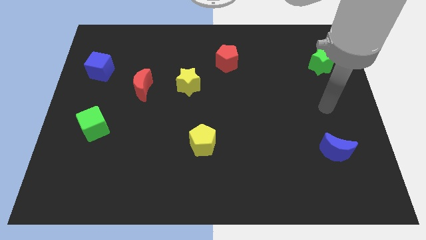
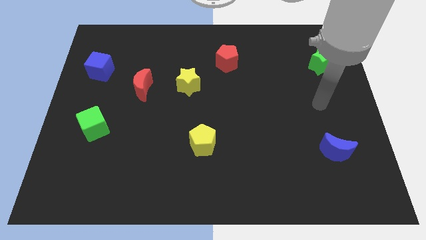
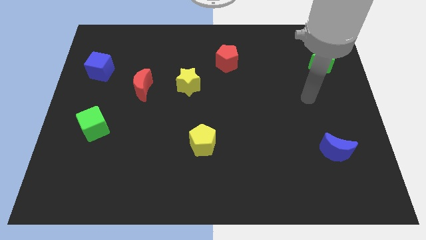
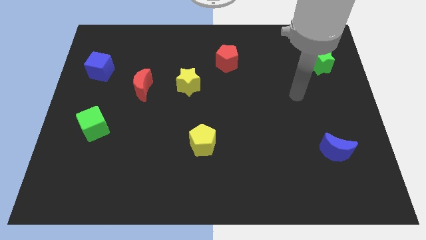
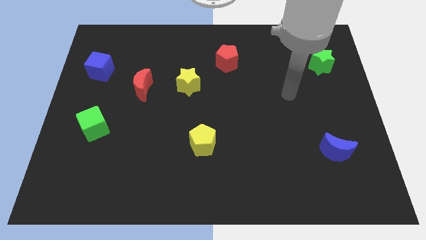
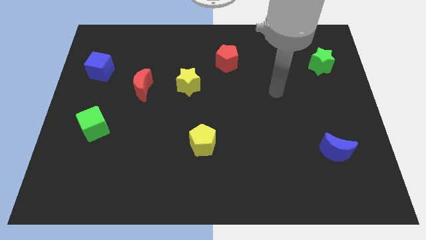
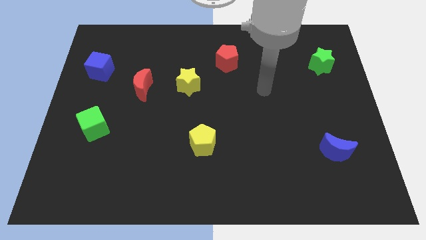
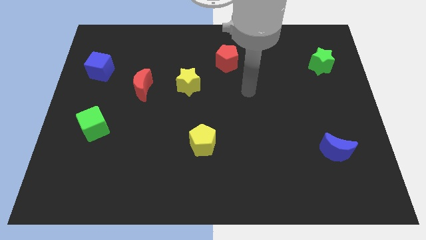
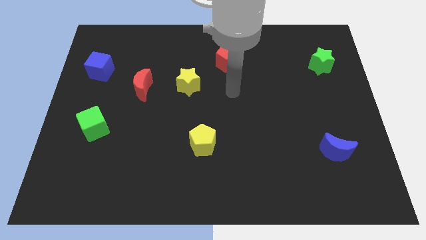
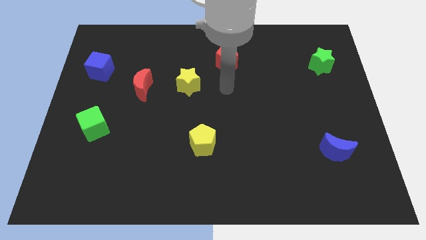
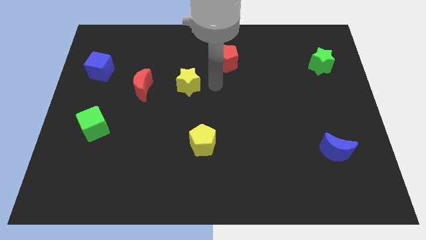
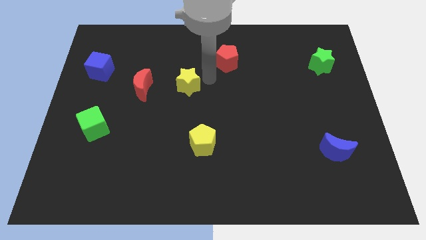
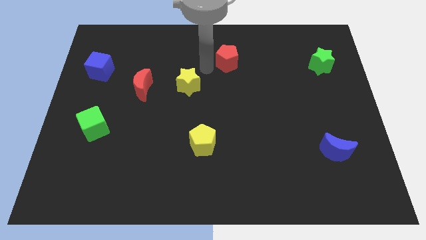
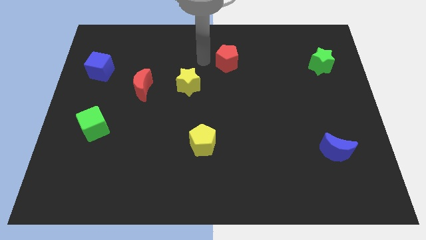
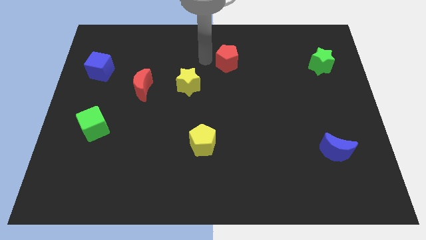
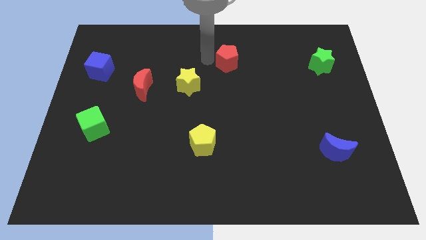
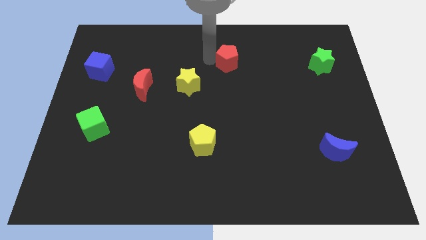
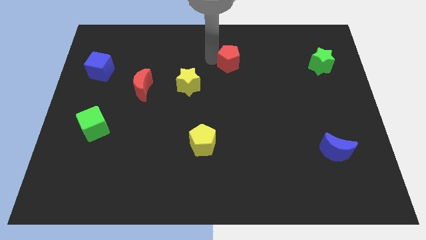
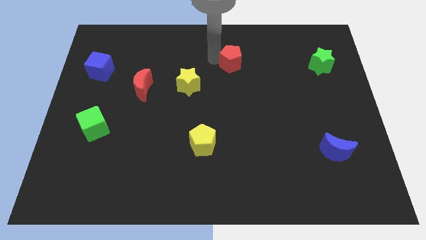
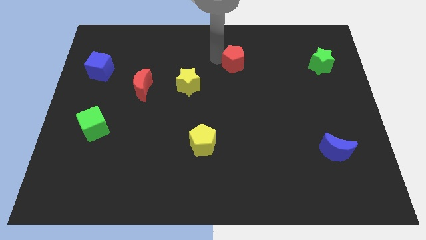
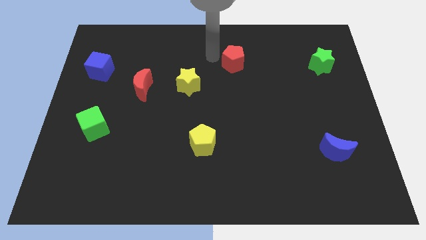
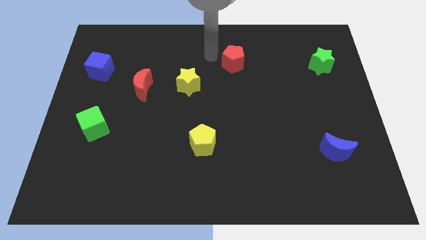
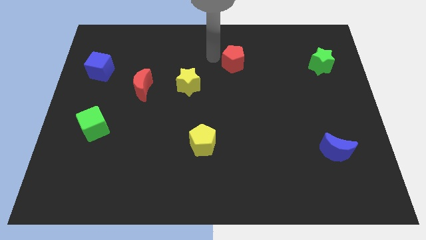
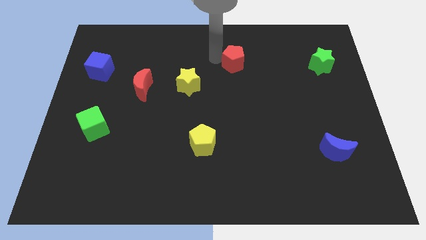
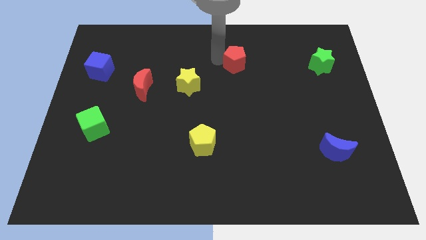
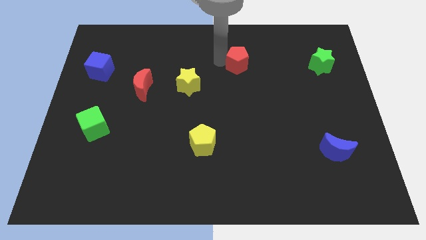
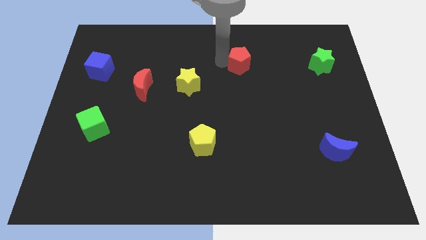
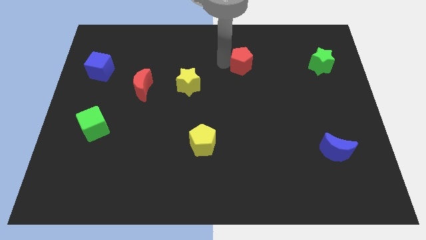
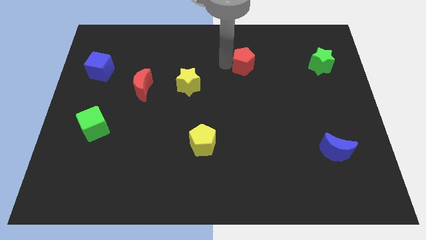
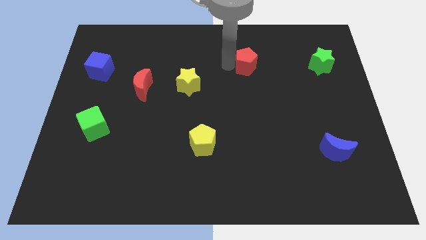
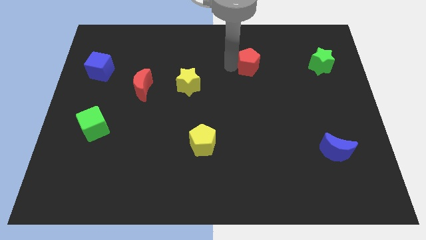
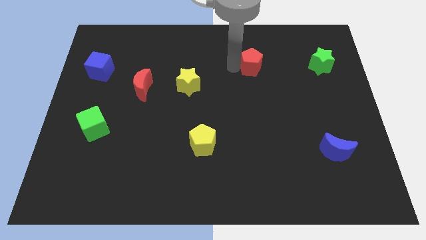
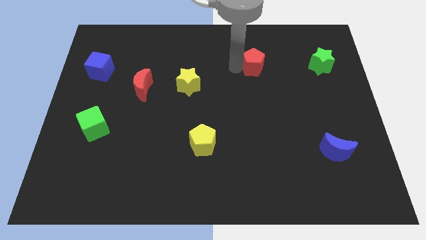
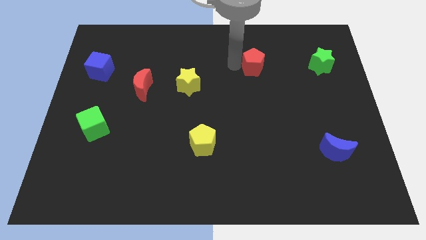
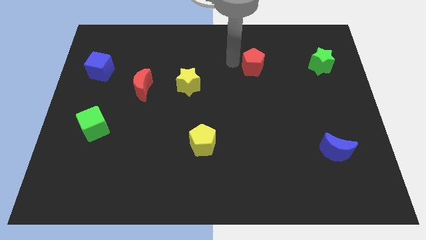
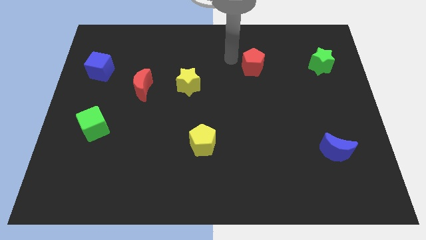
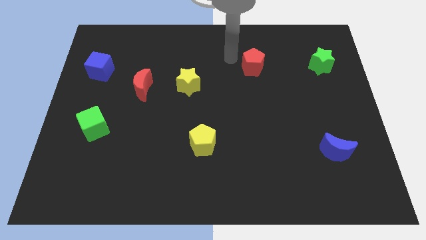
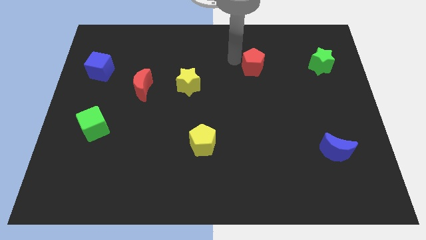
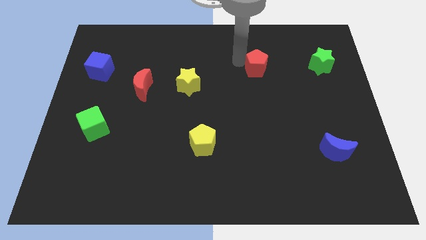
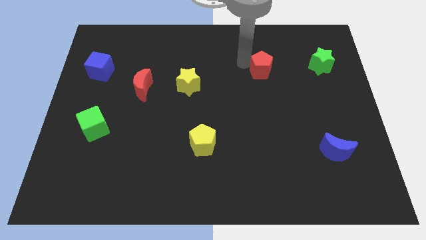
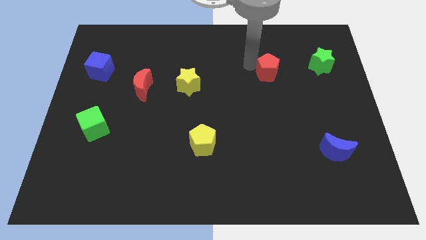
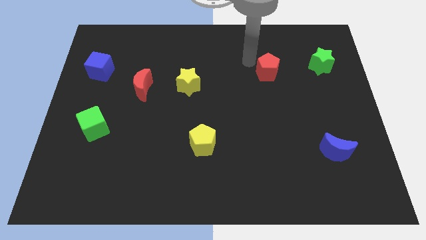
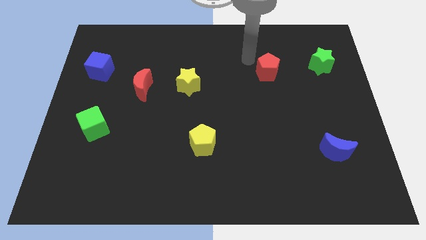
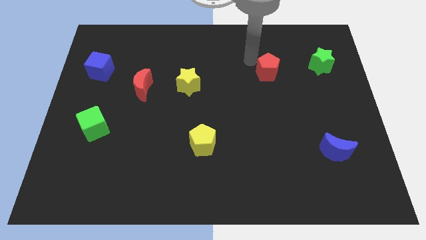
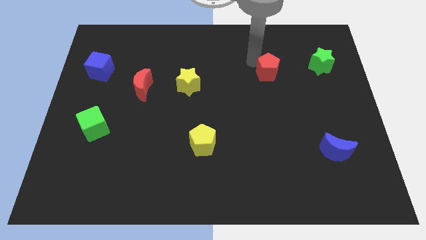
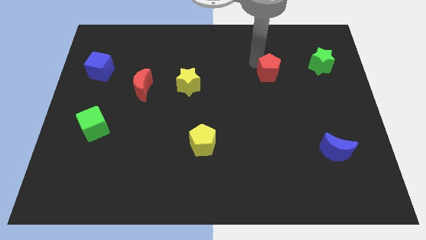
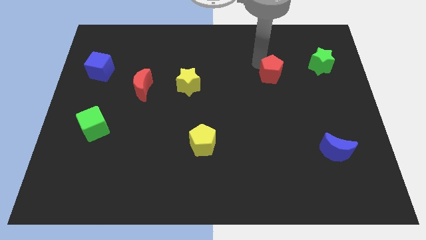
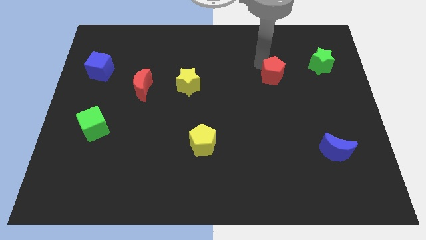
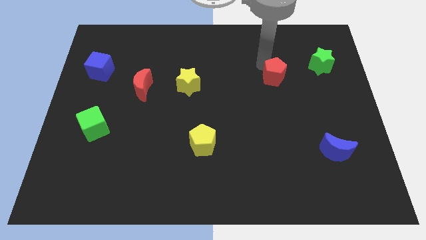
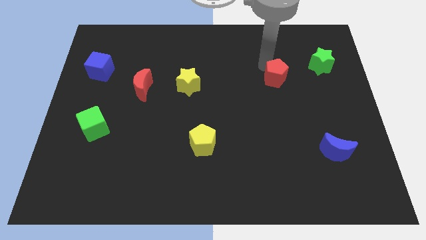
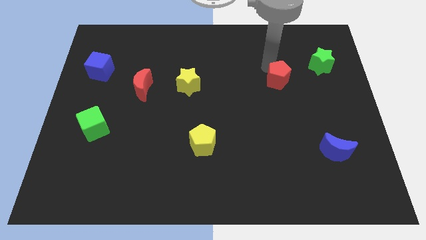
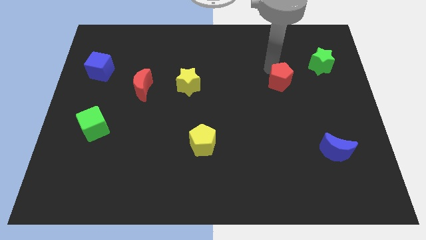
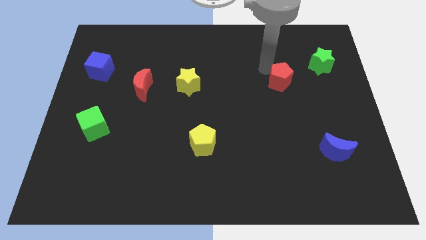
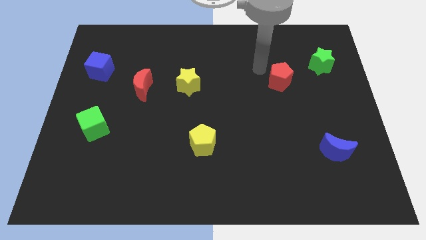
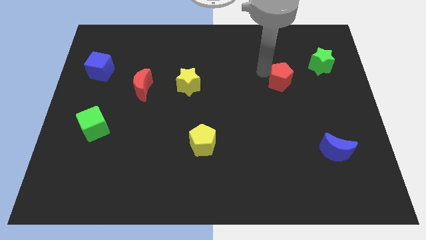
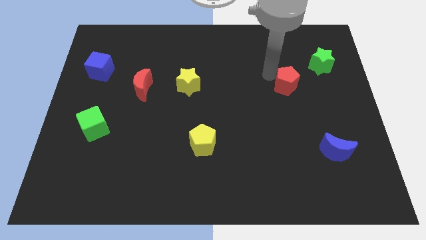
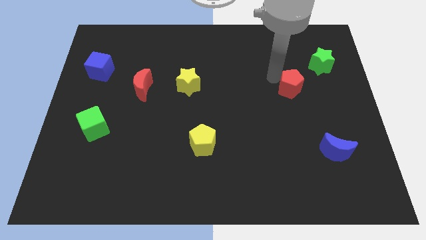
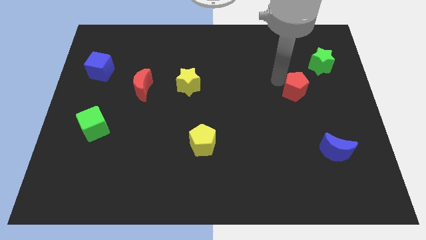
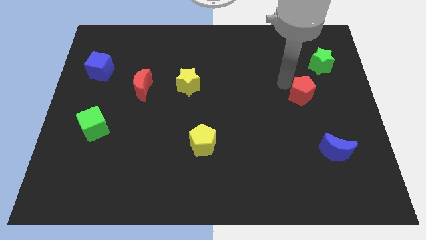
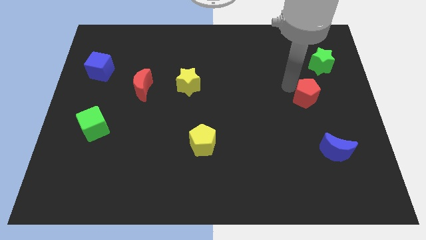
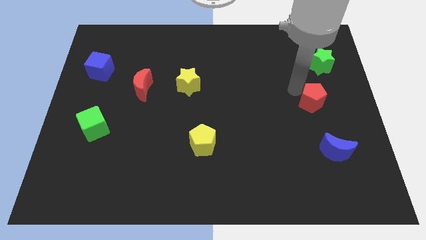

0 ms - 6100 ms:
push the red pentagon to the top of the blue moon

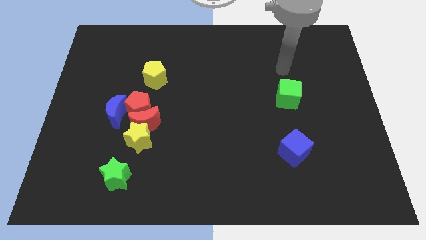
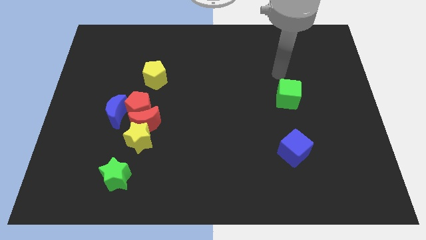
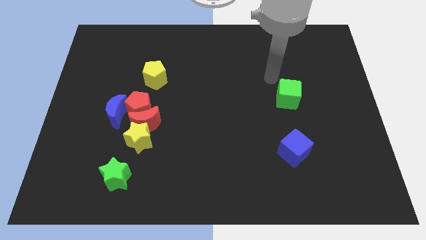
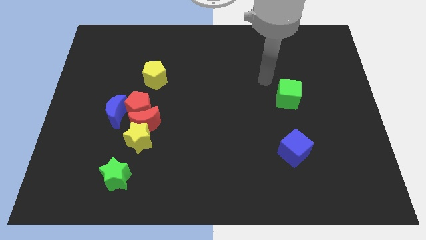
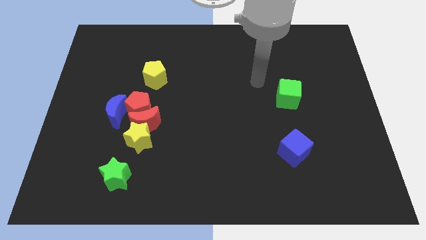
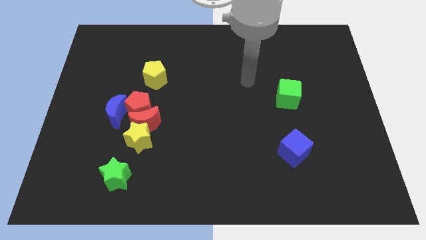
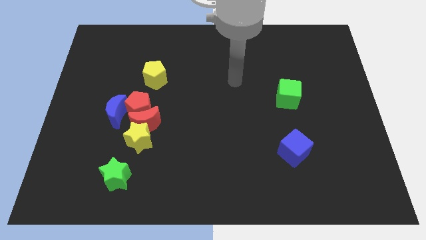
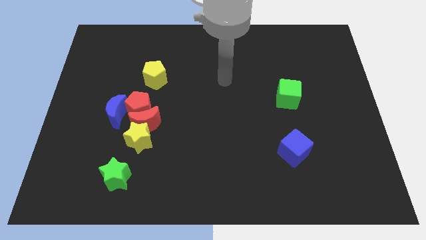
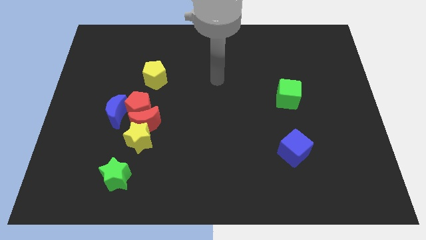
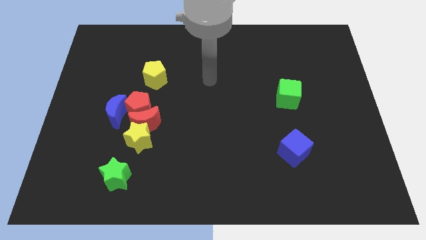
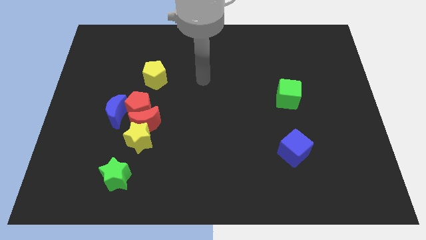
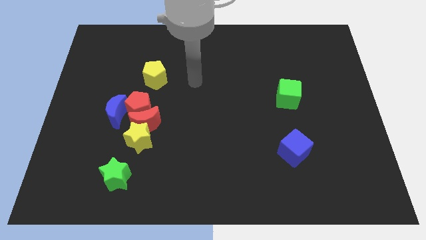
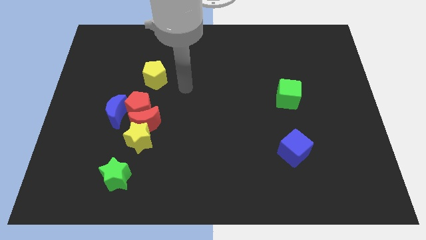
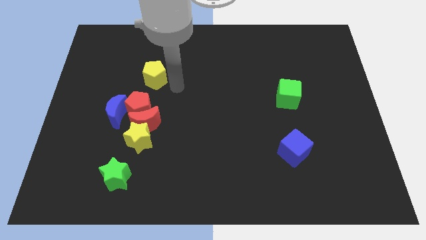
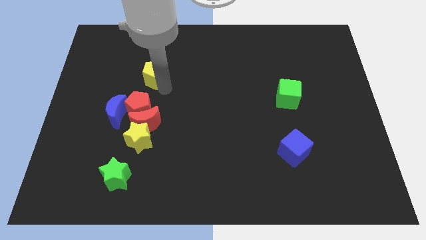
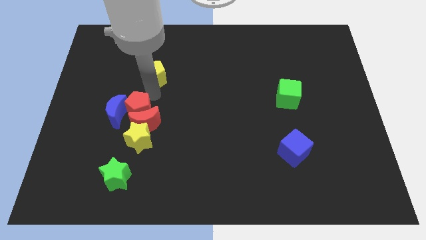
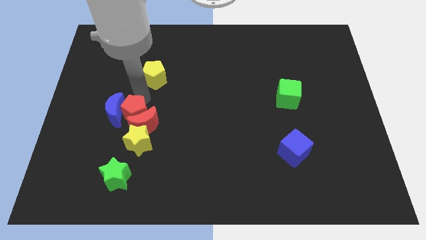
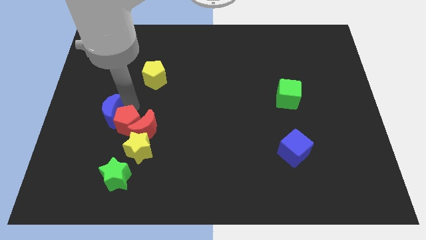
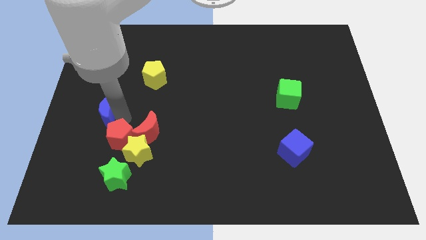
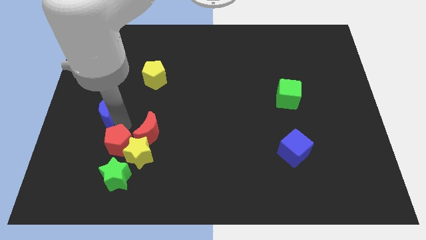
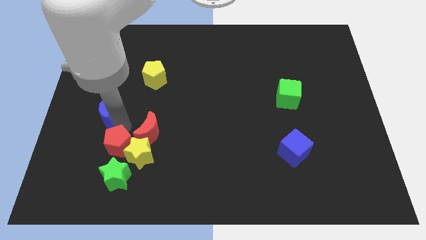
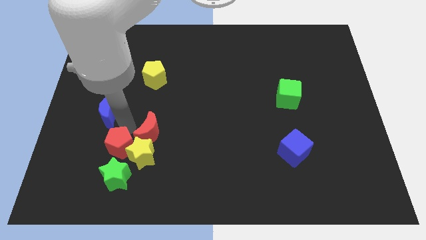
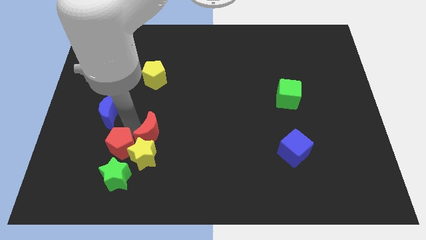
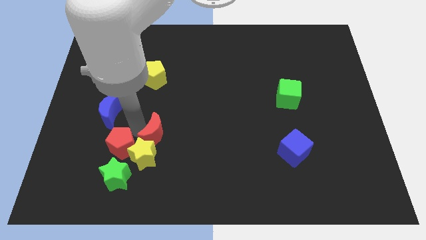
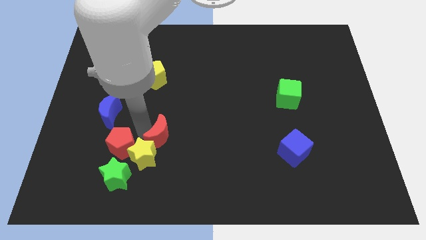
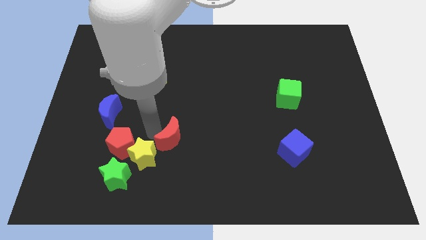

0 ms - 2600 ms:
push the red moon just right of the yellow star
